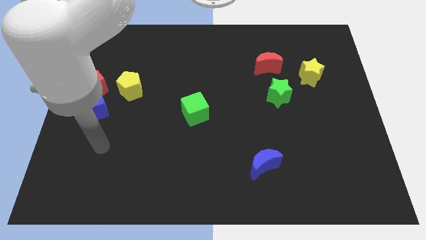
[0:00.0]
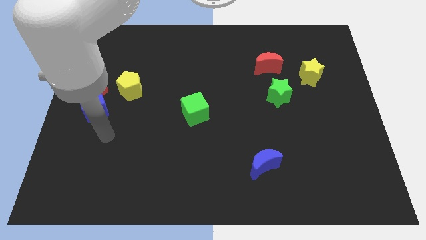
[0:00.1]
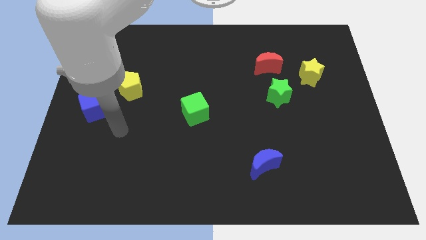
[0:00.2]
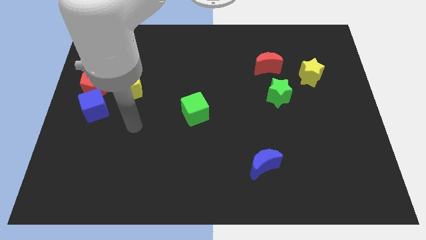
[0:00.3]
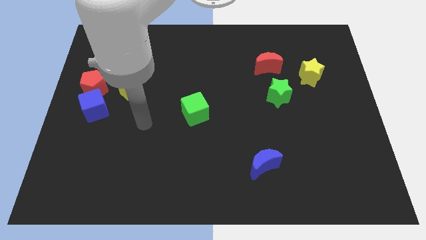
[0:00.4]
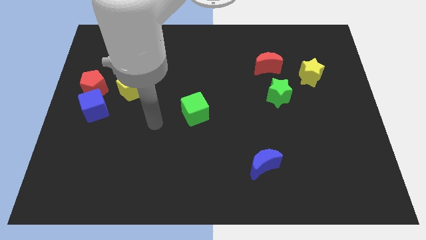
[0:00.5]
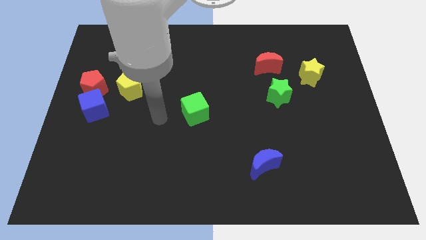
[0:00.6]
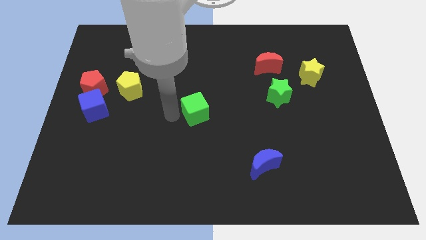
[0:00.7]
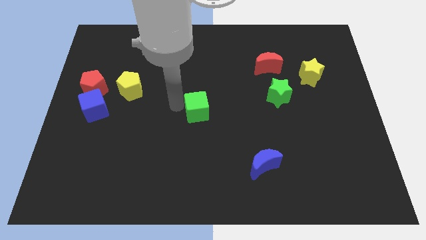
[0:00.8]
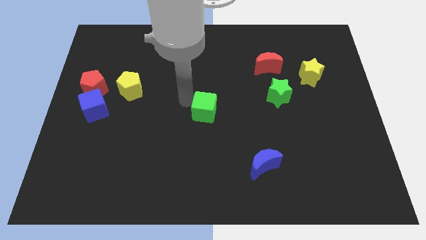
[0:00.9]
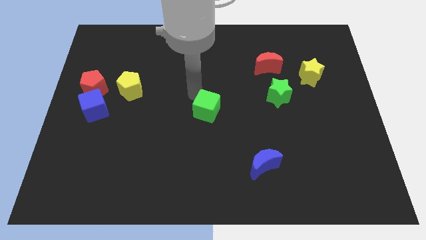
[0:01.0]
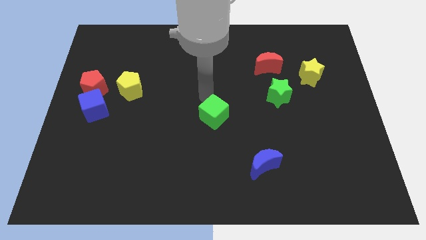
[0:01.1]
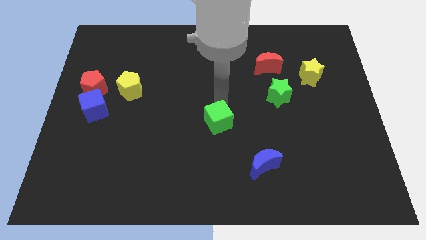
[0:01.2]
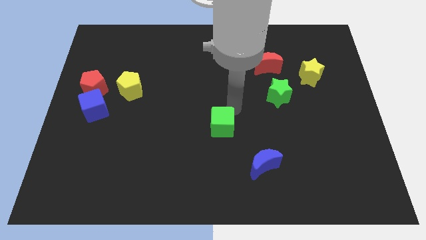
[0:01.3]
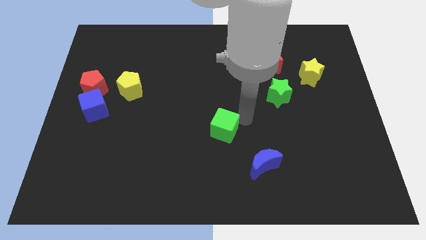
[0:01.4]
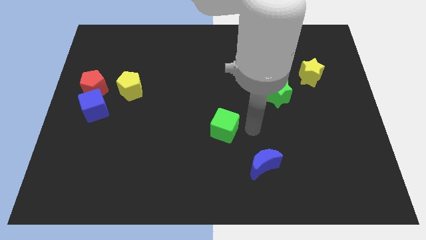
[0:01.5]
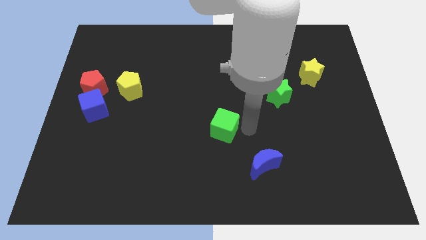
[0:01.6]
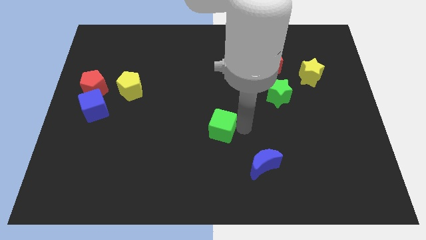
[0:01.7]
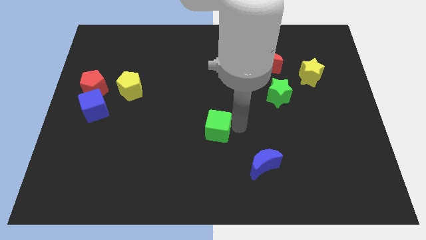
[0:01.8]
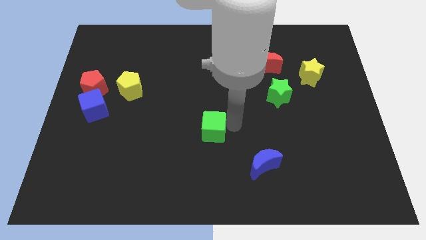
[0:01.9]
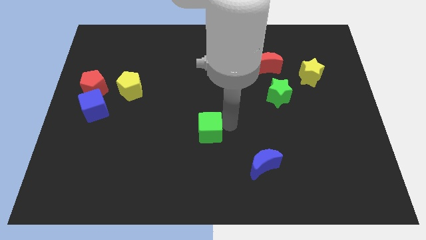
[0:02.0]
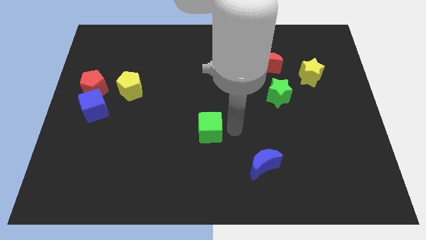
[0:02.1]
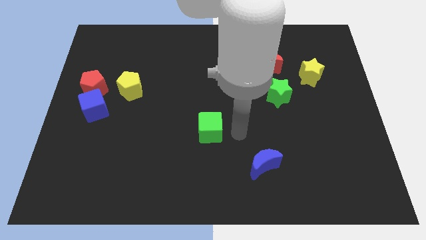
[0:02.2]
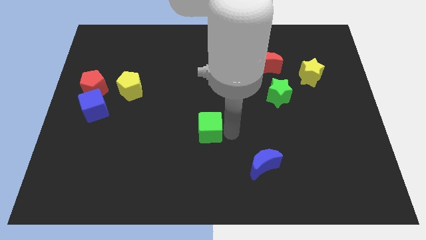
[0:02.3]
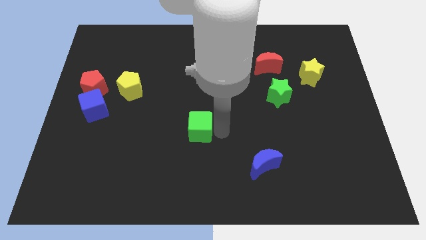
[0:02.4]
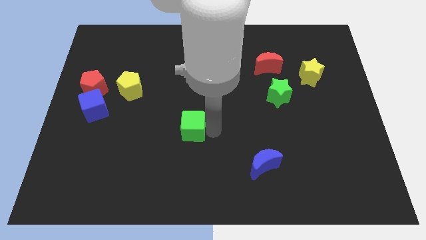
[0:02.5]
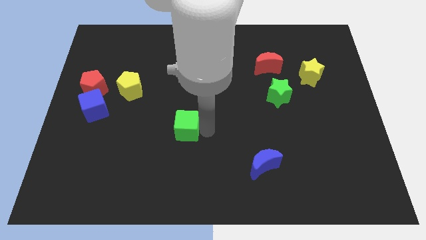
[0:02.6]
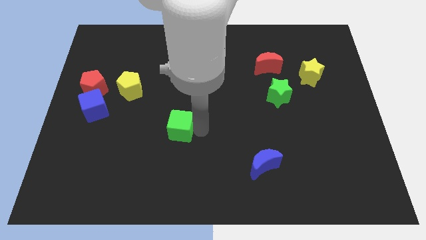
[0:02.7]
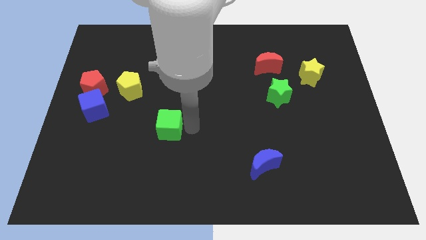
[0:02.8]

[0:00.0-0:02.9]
slightly push the green cube diagonally downwards and left

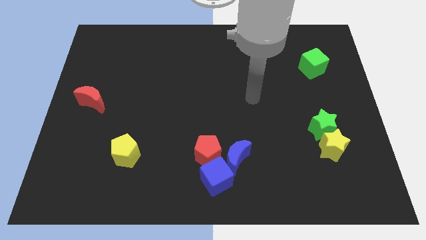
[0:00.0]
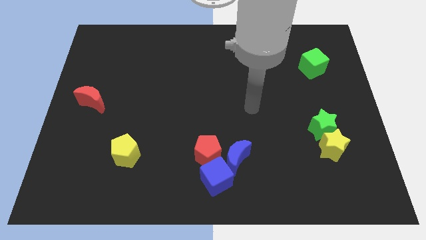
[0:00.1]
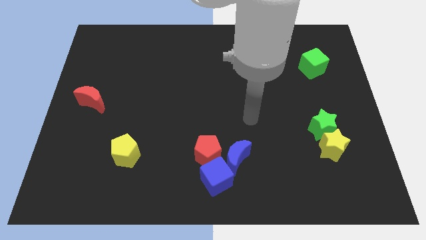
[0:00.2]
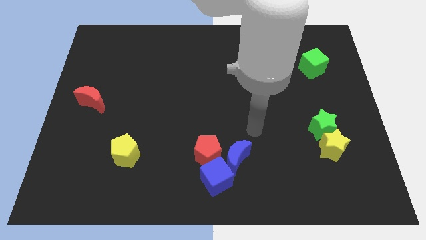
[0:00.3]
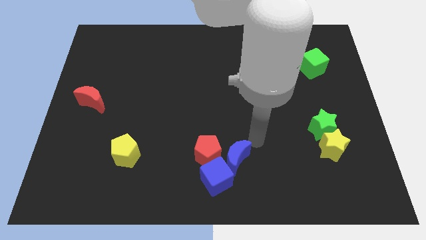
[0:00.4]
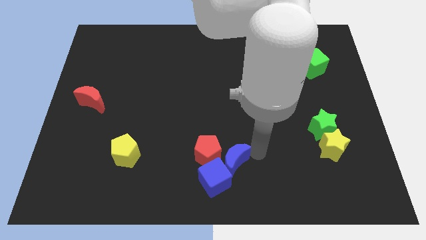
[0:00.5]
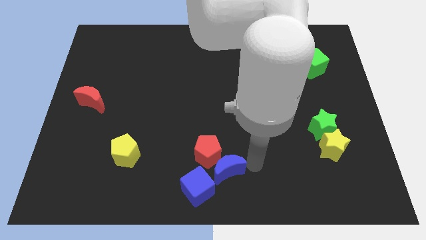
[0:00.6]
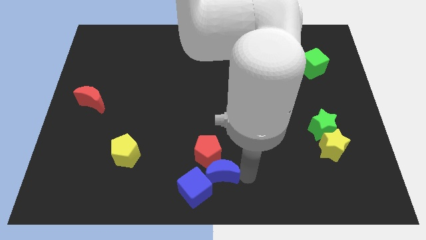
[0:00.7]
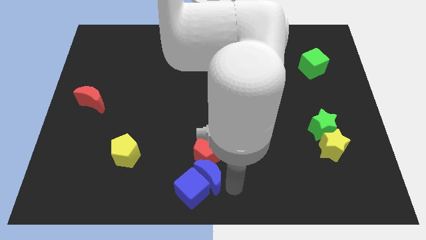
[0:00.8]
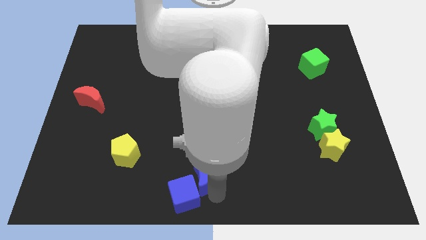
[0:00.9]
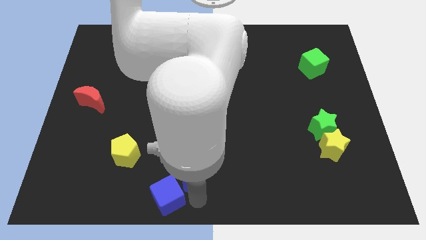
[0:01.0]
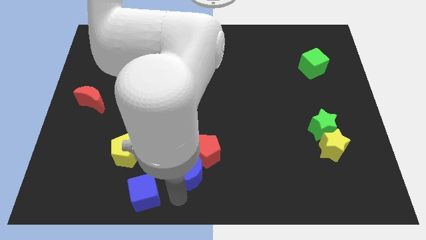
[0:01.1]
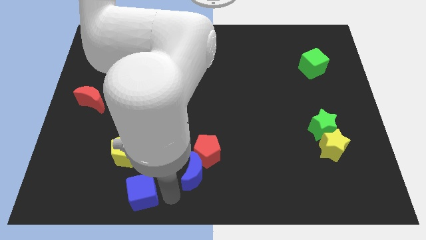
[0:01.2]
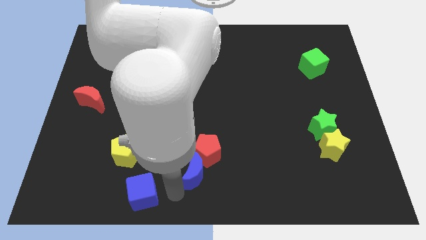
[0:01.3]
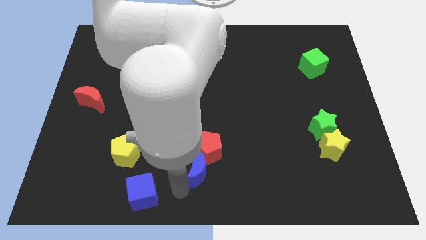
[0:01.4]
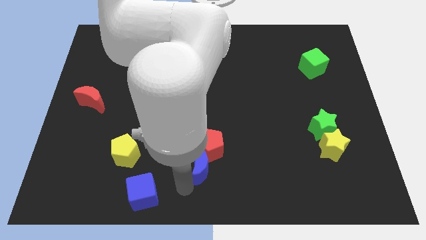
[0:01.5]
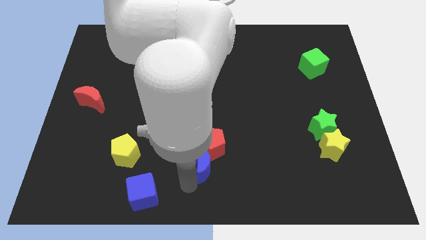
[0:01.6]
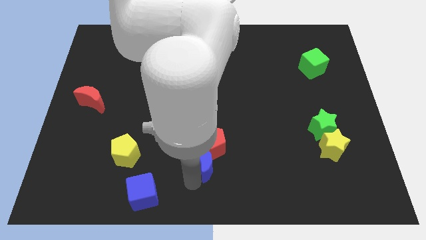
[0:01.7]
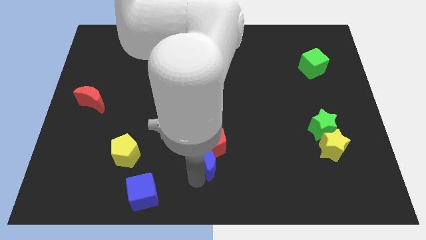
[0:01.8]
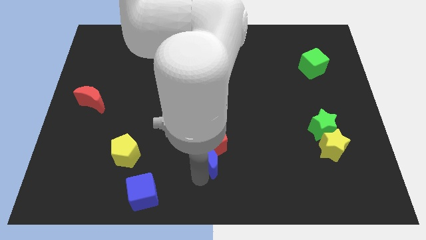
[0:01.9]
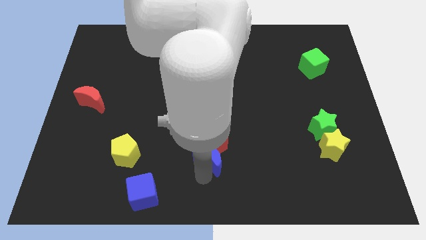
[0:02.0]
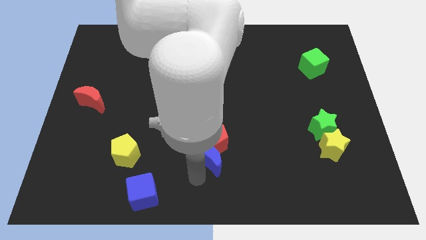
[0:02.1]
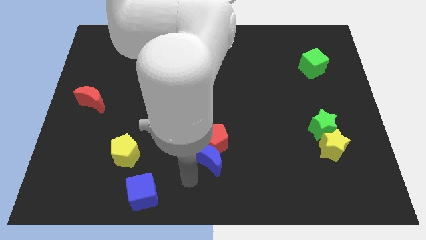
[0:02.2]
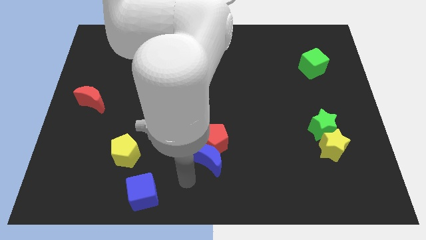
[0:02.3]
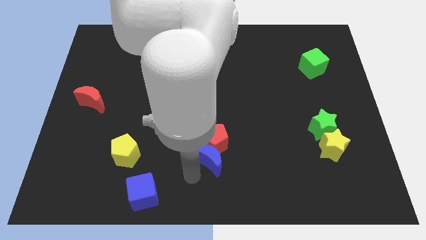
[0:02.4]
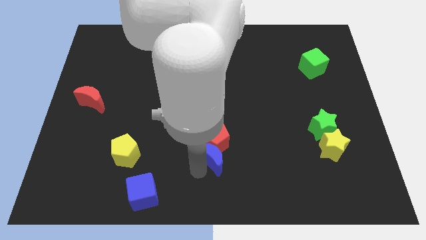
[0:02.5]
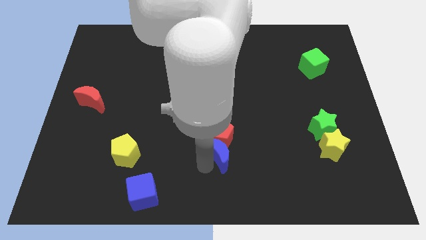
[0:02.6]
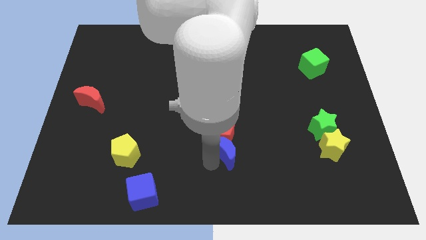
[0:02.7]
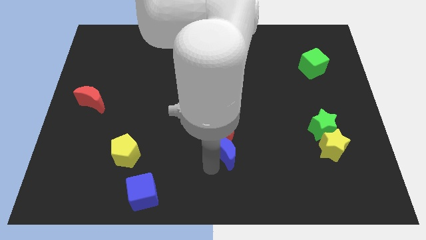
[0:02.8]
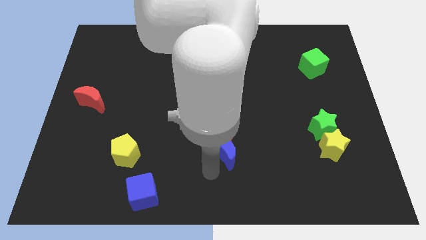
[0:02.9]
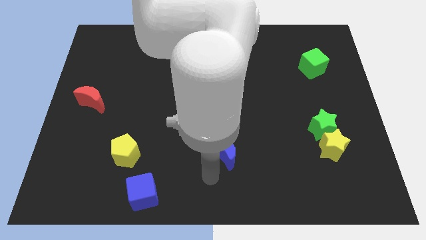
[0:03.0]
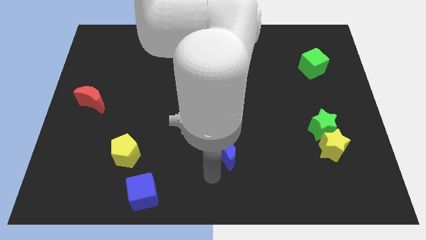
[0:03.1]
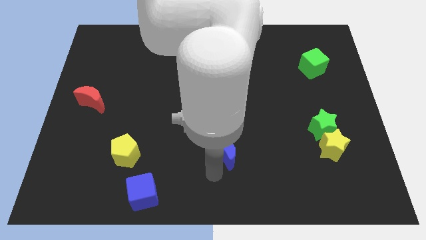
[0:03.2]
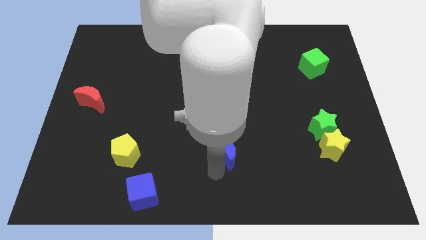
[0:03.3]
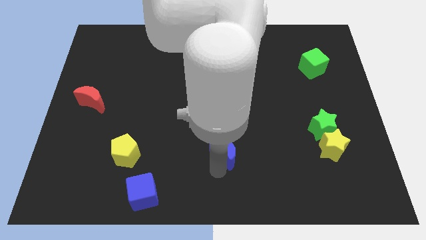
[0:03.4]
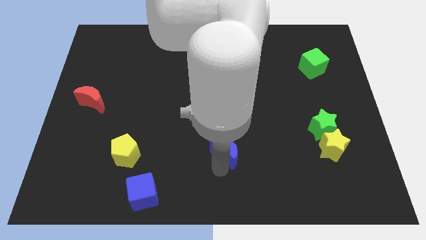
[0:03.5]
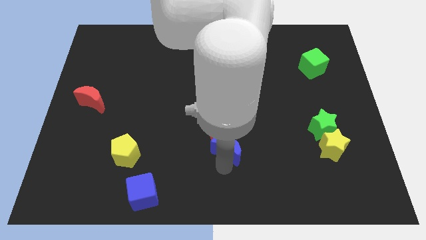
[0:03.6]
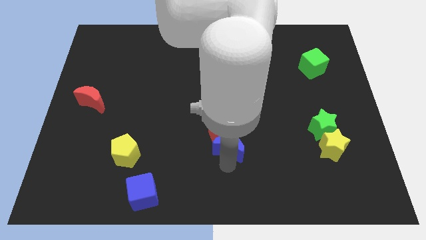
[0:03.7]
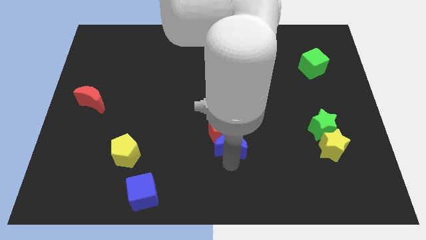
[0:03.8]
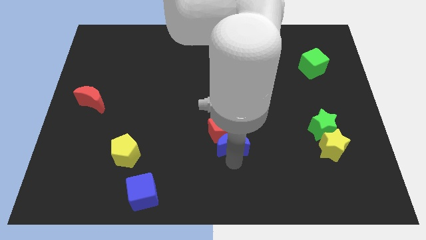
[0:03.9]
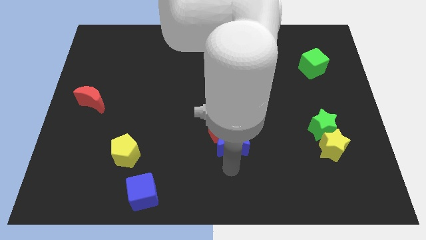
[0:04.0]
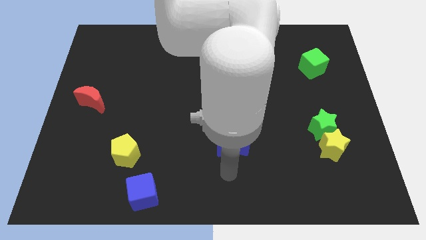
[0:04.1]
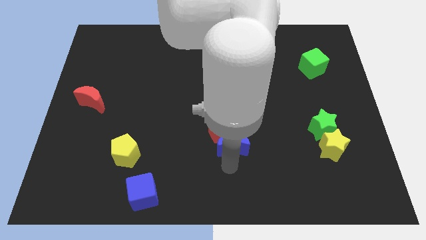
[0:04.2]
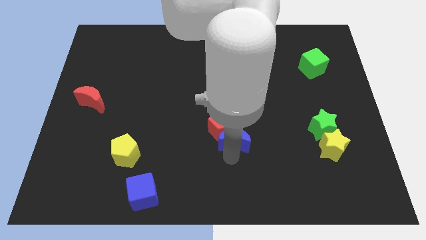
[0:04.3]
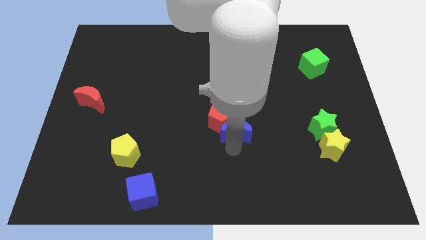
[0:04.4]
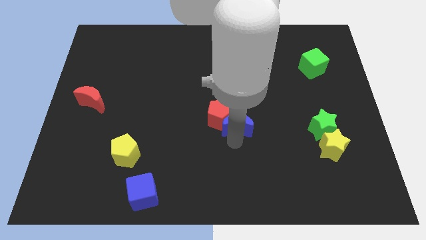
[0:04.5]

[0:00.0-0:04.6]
push the blue moon a little upwards

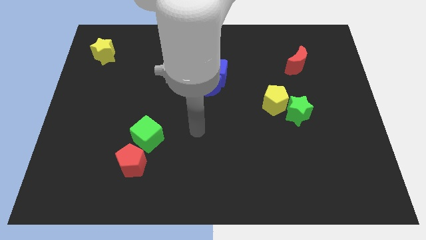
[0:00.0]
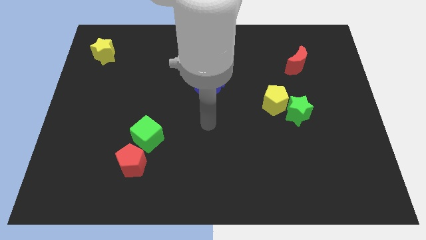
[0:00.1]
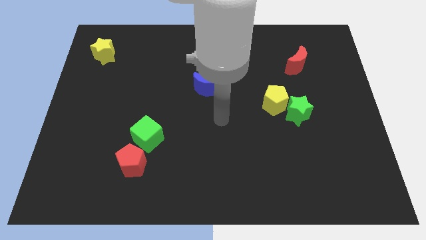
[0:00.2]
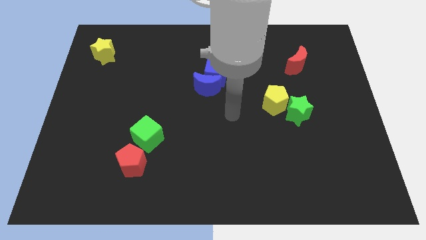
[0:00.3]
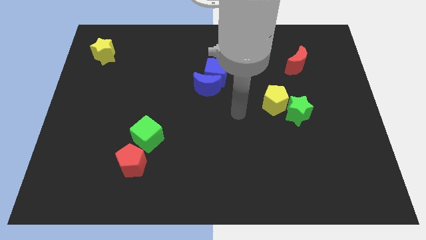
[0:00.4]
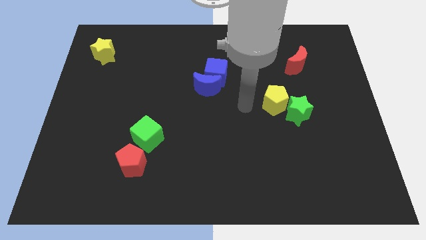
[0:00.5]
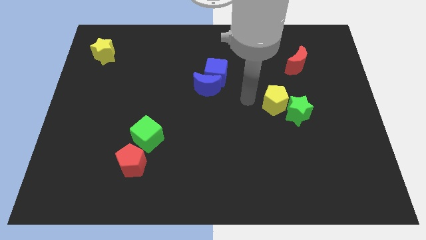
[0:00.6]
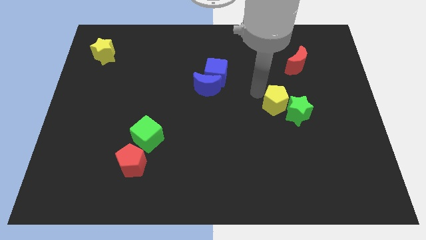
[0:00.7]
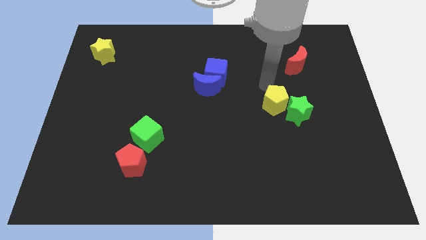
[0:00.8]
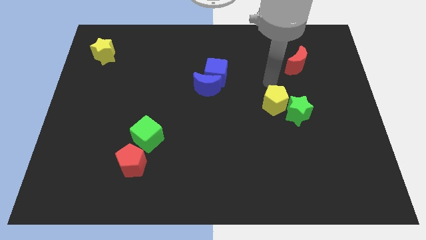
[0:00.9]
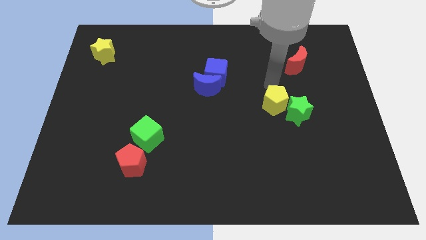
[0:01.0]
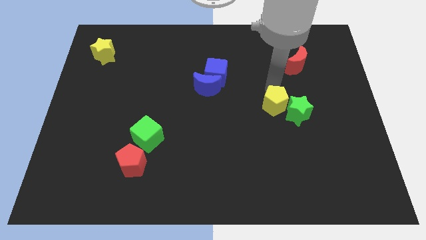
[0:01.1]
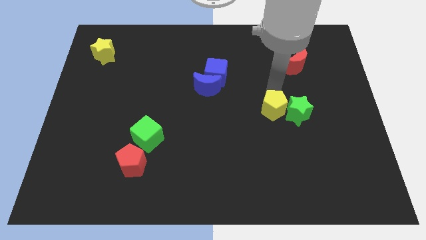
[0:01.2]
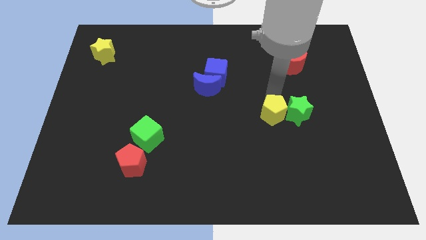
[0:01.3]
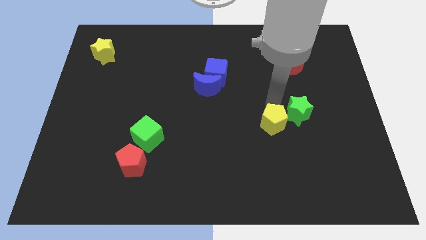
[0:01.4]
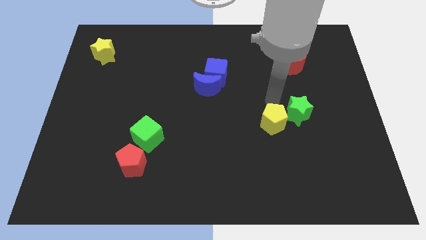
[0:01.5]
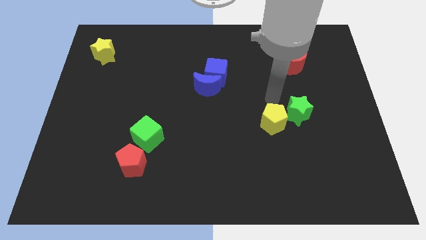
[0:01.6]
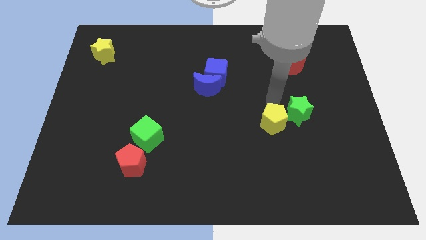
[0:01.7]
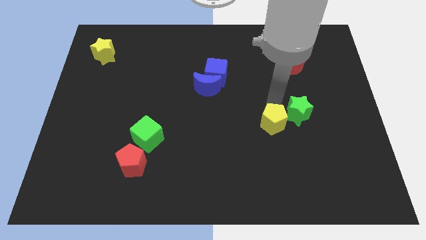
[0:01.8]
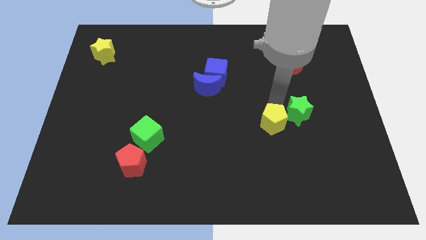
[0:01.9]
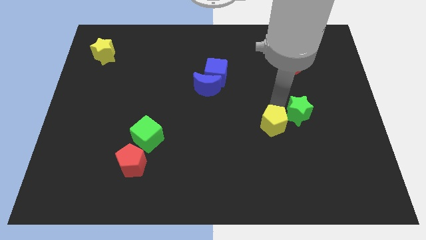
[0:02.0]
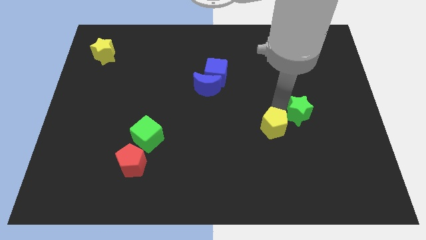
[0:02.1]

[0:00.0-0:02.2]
slide the yellow pentagon a little bit down
